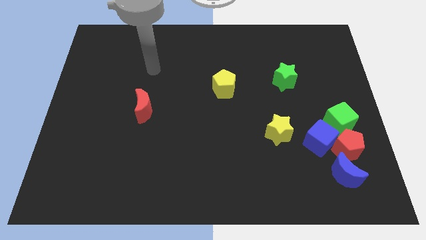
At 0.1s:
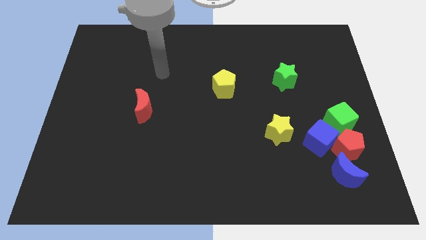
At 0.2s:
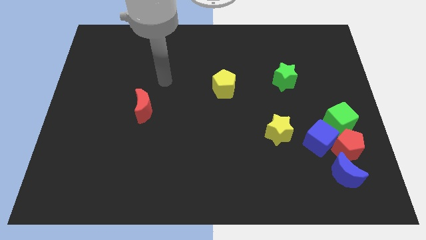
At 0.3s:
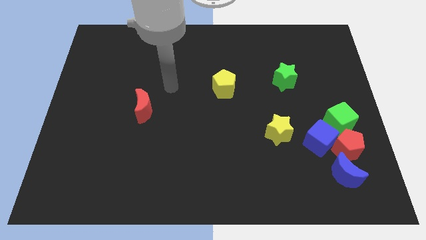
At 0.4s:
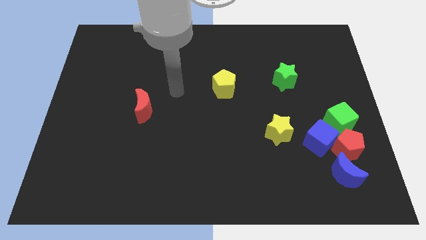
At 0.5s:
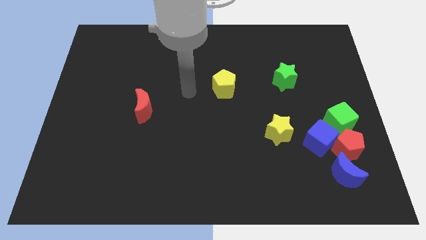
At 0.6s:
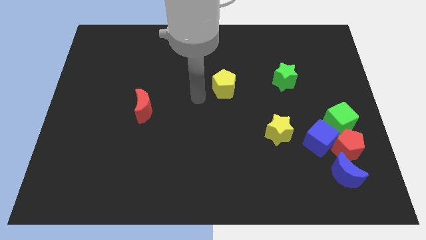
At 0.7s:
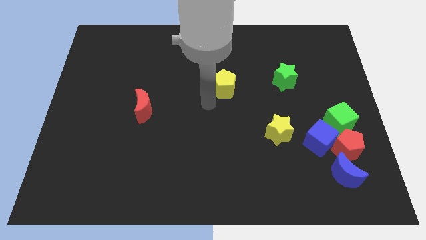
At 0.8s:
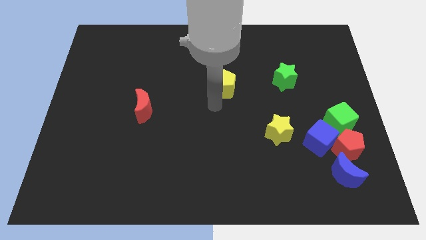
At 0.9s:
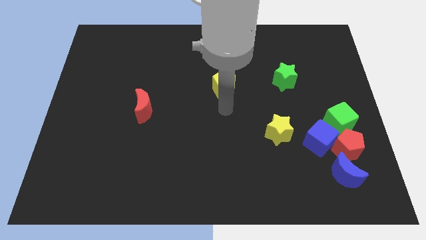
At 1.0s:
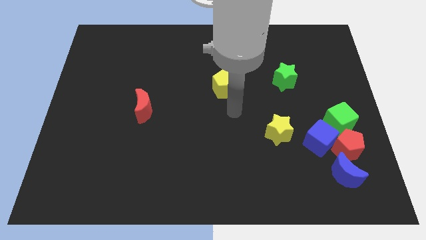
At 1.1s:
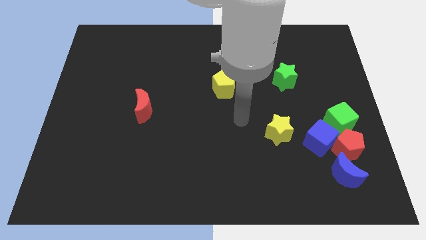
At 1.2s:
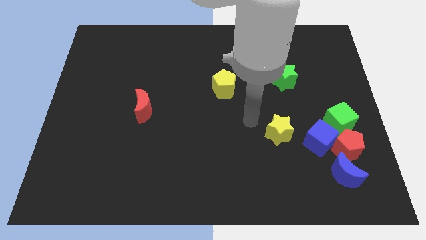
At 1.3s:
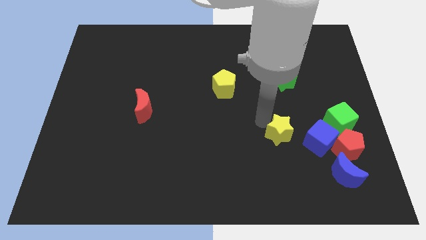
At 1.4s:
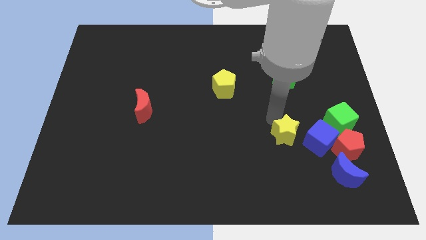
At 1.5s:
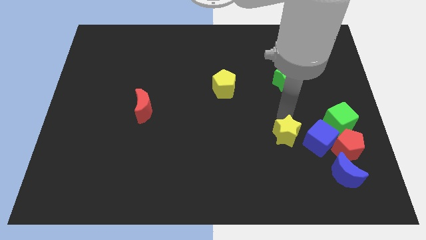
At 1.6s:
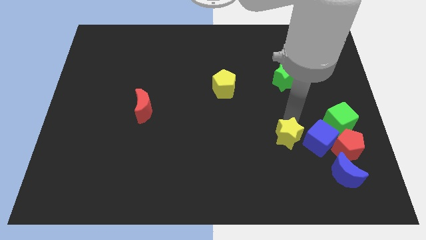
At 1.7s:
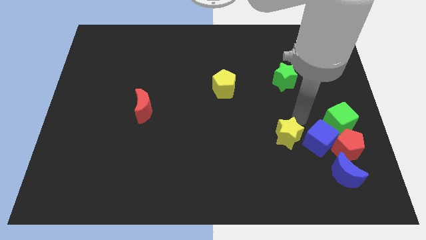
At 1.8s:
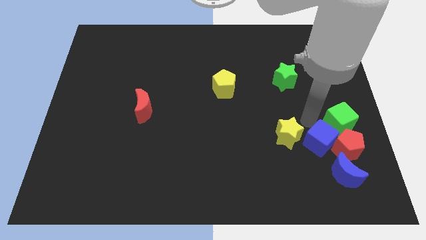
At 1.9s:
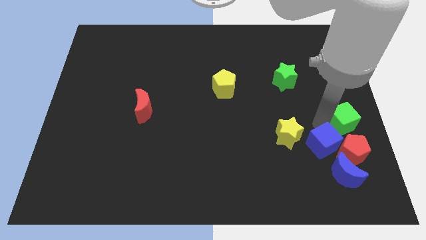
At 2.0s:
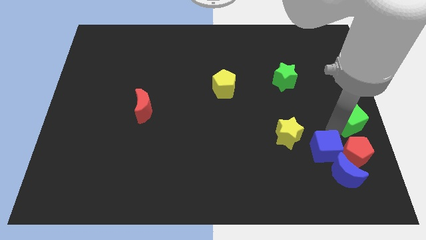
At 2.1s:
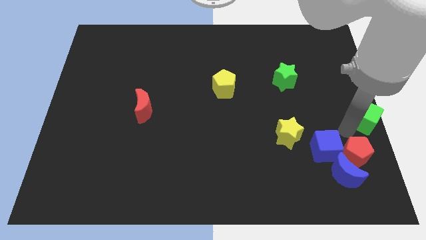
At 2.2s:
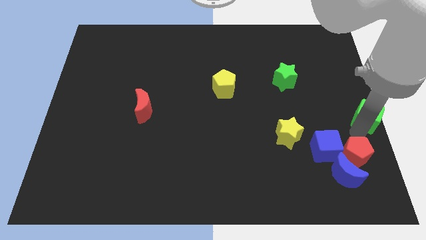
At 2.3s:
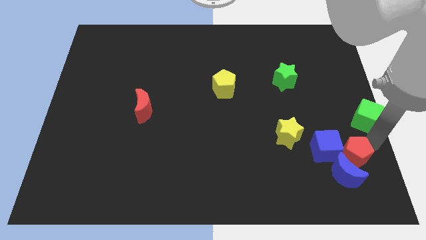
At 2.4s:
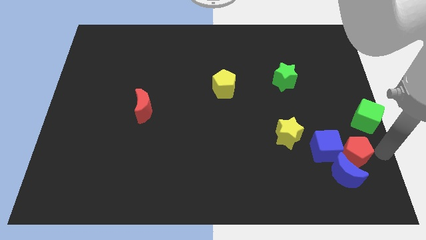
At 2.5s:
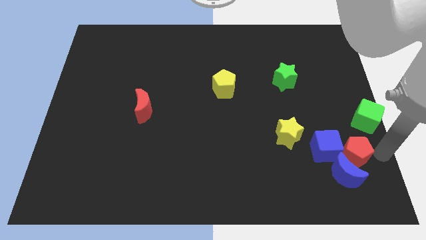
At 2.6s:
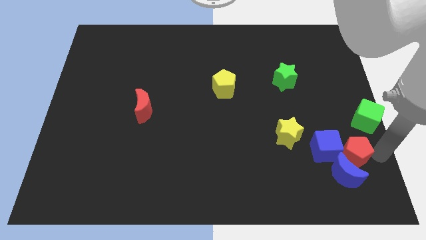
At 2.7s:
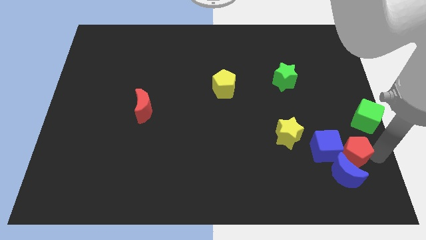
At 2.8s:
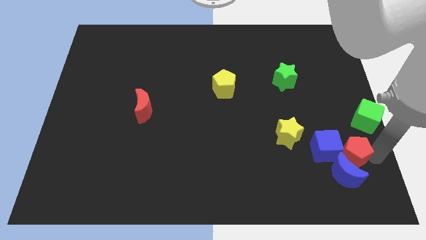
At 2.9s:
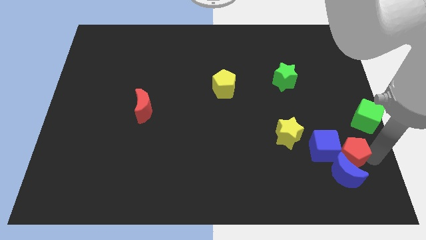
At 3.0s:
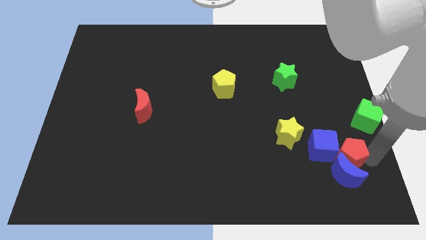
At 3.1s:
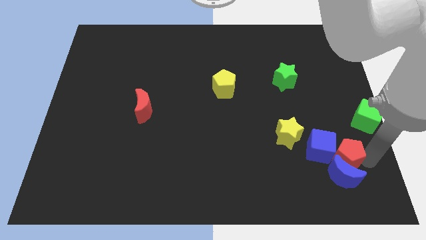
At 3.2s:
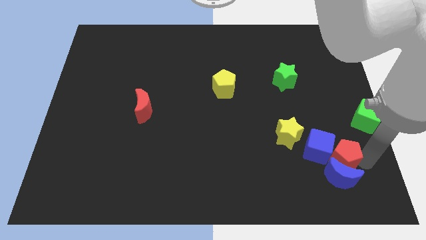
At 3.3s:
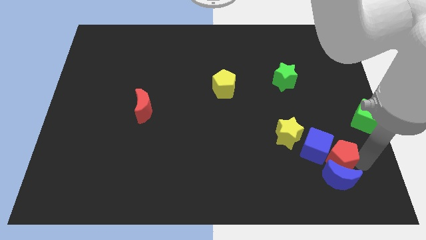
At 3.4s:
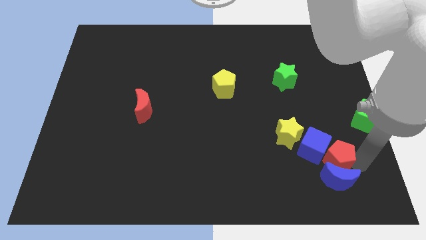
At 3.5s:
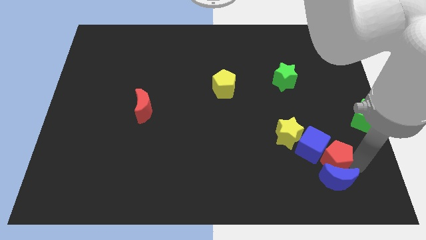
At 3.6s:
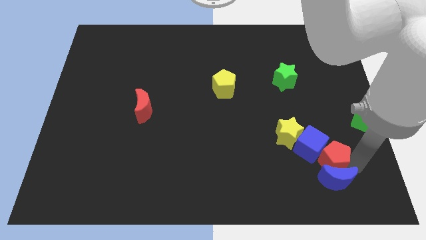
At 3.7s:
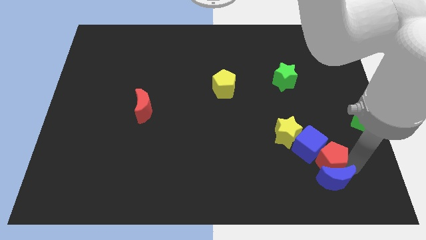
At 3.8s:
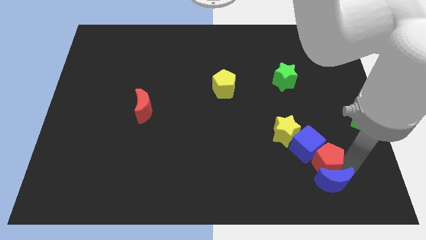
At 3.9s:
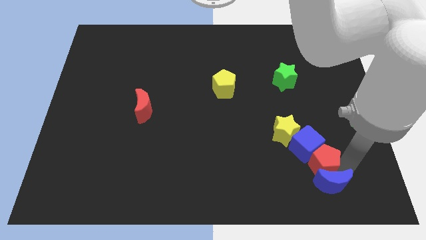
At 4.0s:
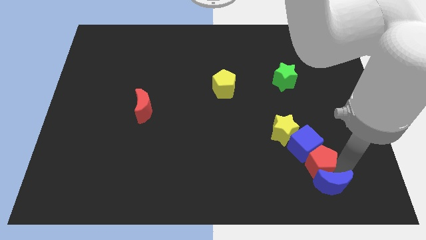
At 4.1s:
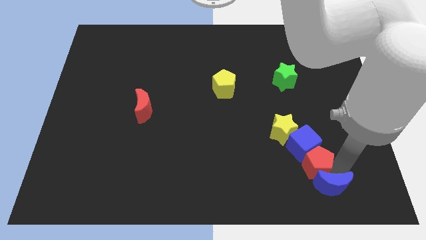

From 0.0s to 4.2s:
move the red pentagon left slightly

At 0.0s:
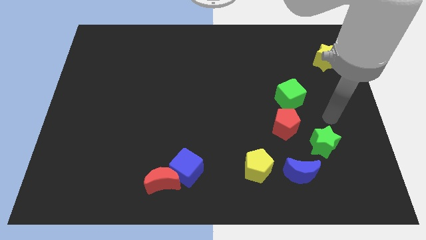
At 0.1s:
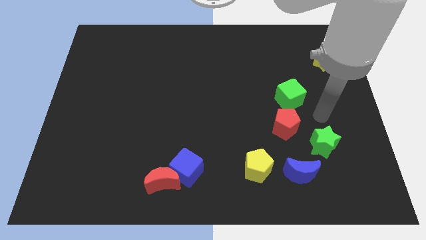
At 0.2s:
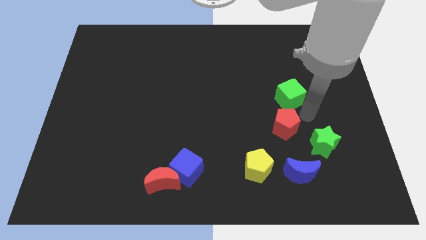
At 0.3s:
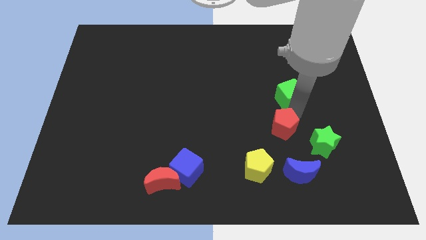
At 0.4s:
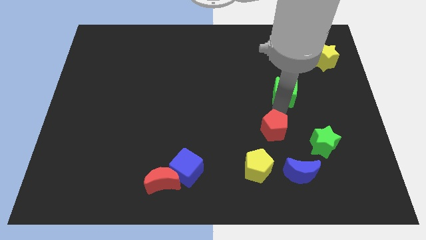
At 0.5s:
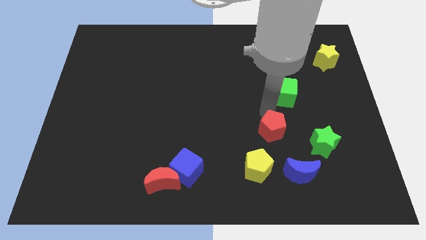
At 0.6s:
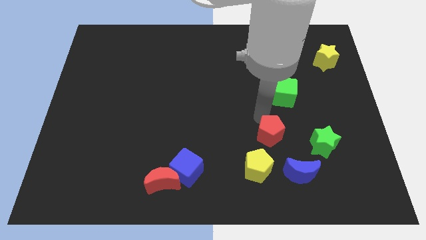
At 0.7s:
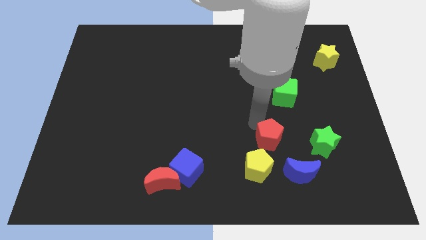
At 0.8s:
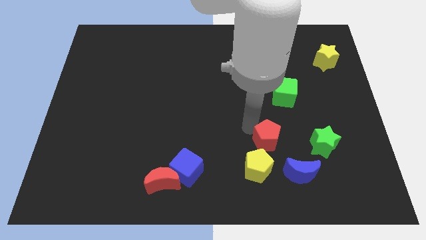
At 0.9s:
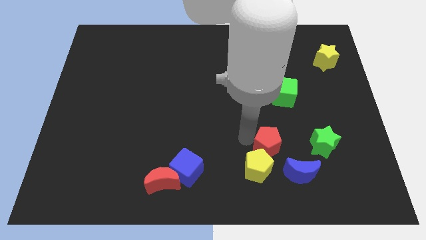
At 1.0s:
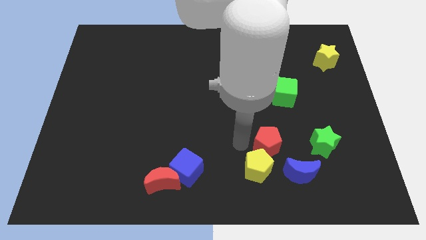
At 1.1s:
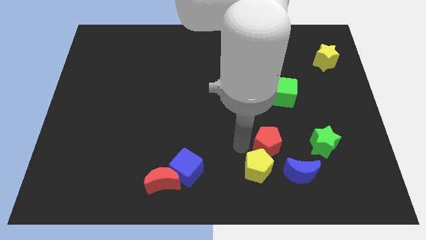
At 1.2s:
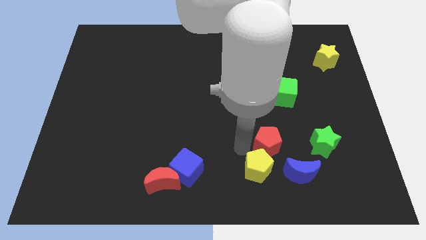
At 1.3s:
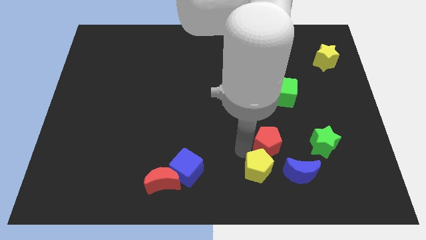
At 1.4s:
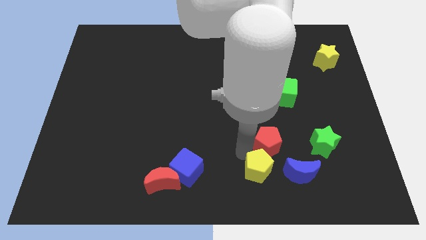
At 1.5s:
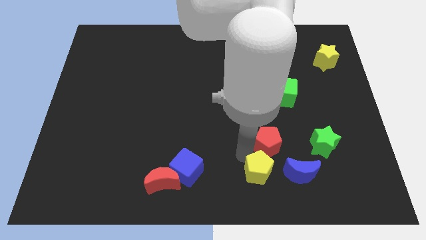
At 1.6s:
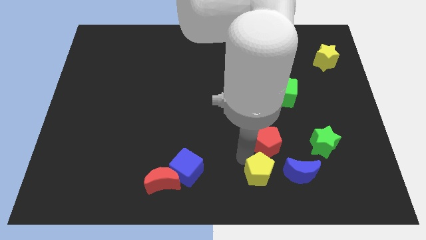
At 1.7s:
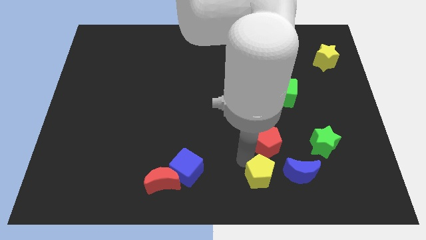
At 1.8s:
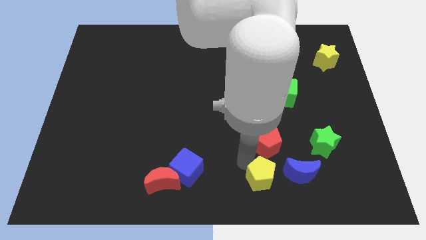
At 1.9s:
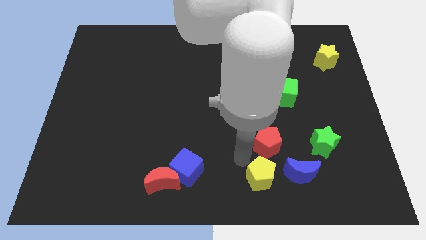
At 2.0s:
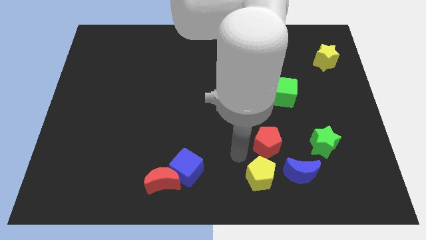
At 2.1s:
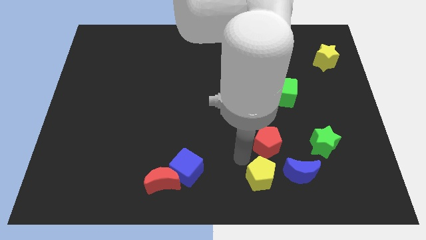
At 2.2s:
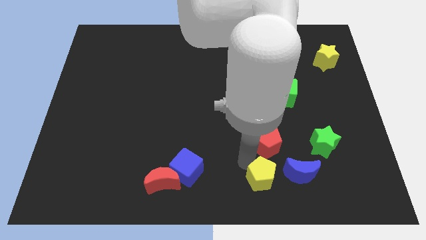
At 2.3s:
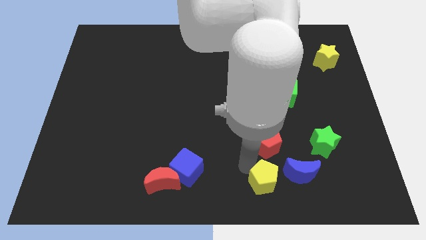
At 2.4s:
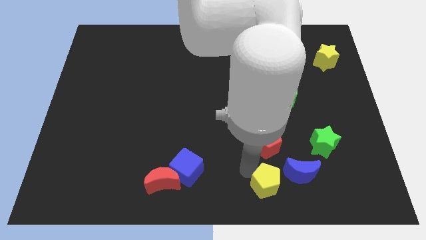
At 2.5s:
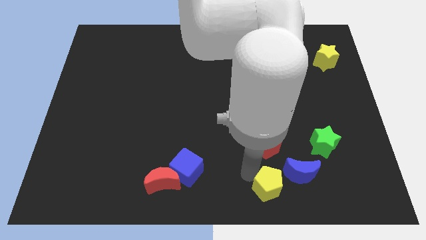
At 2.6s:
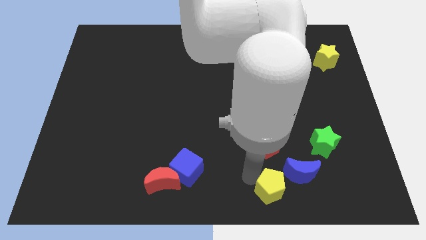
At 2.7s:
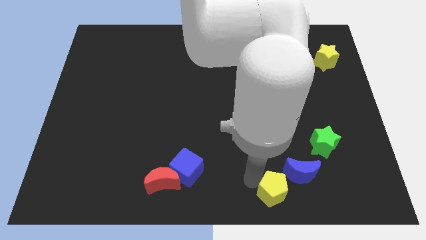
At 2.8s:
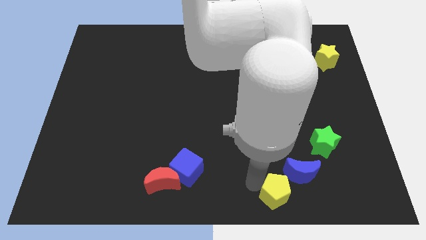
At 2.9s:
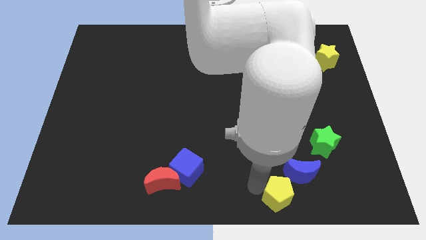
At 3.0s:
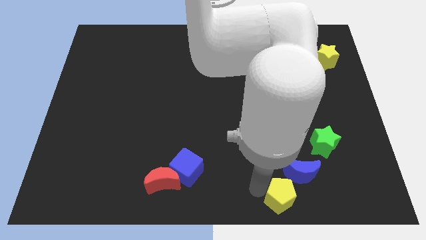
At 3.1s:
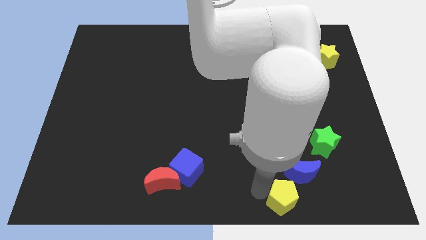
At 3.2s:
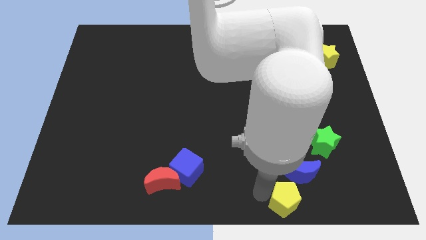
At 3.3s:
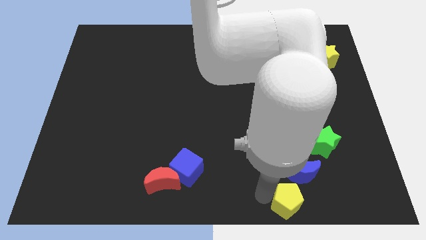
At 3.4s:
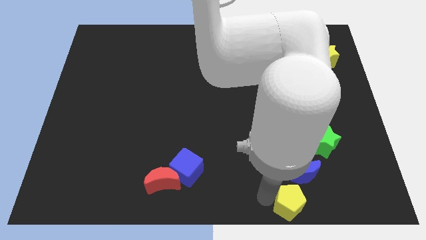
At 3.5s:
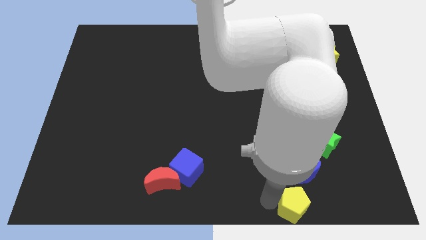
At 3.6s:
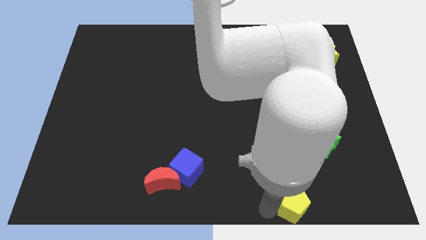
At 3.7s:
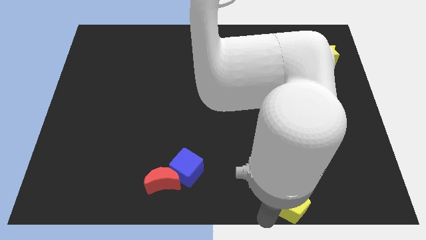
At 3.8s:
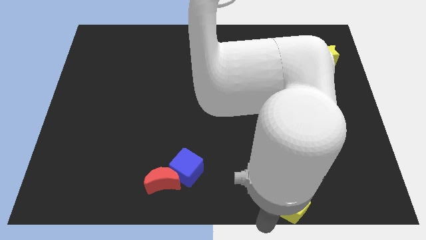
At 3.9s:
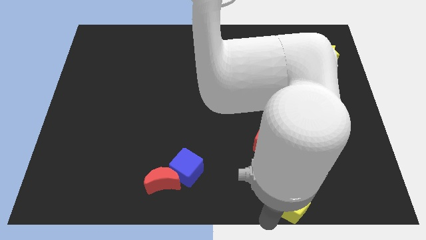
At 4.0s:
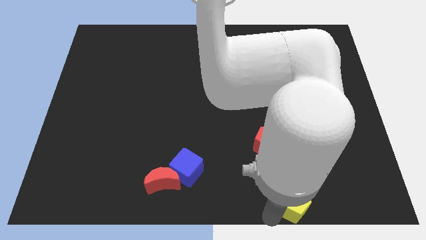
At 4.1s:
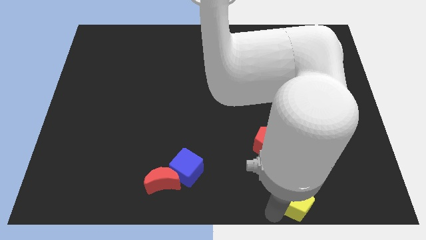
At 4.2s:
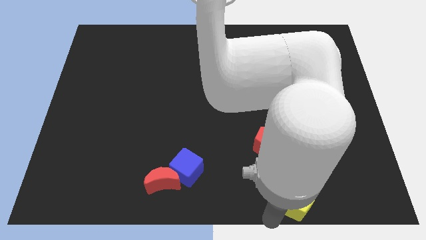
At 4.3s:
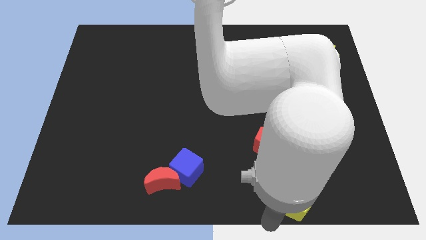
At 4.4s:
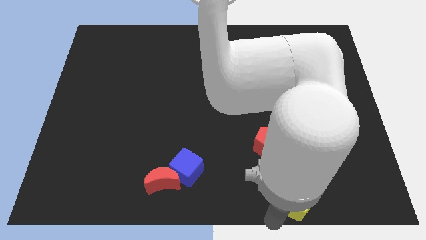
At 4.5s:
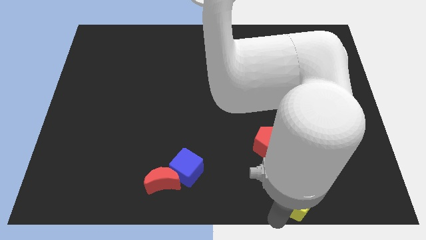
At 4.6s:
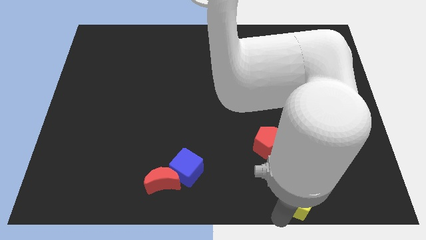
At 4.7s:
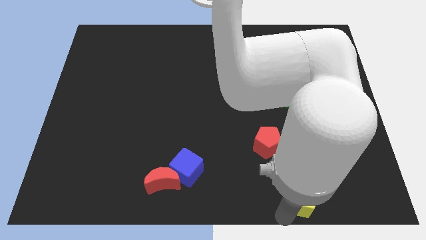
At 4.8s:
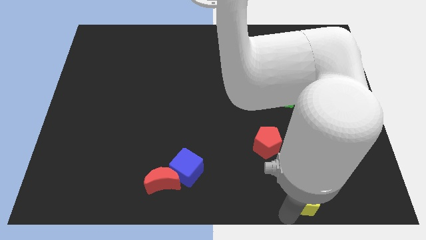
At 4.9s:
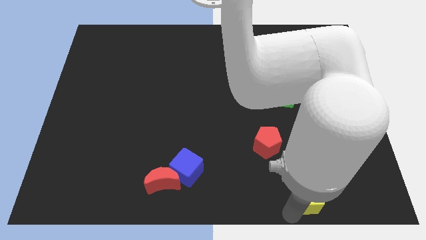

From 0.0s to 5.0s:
slide the yellow pentagon slightly to the right
